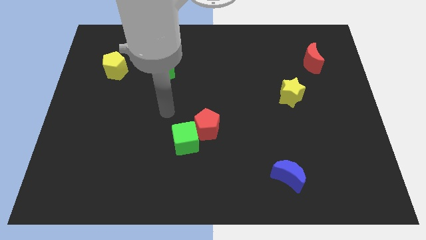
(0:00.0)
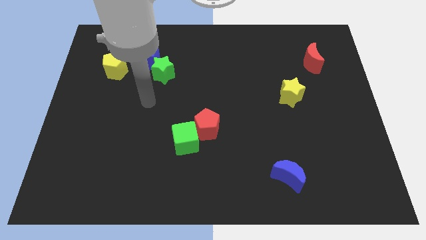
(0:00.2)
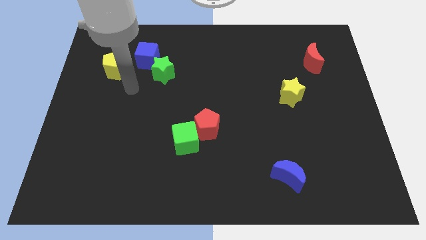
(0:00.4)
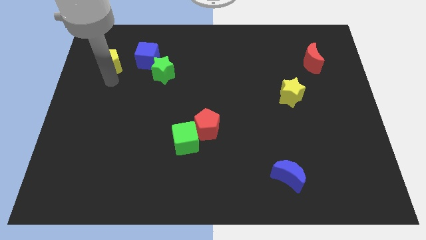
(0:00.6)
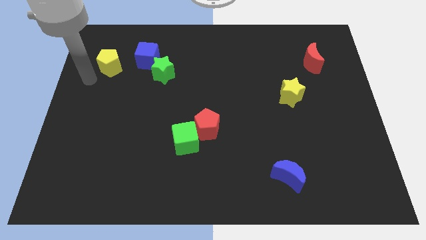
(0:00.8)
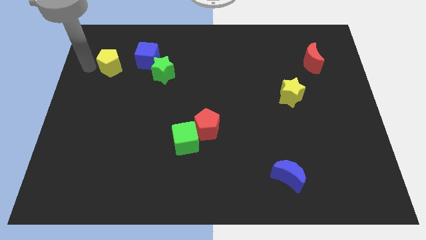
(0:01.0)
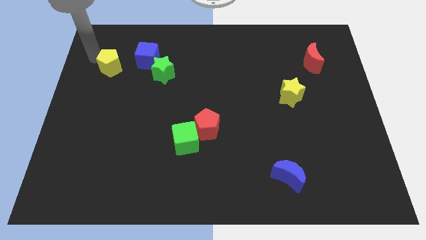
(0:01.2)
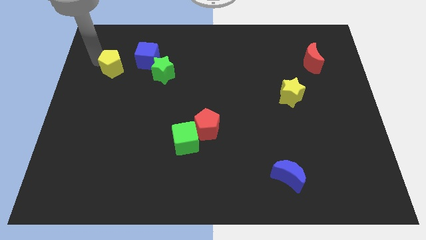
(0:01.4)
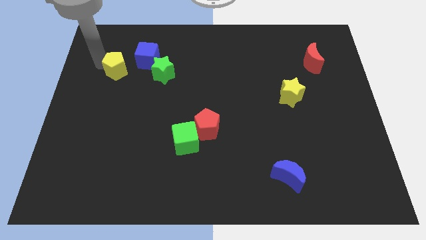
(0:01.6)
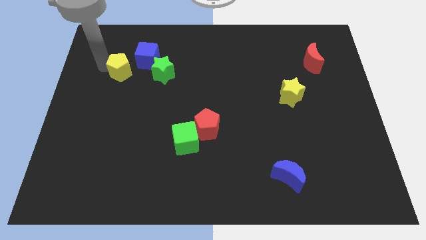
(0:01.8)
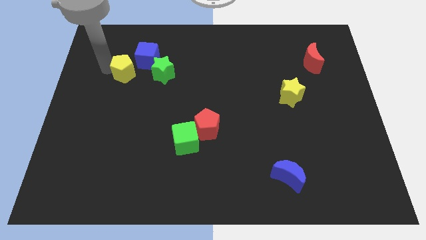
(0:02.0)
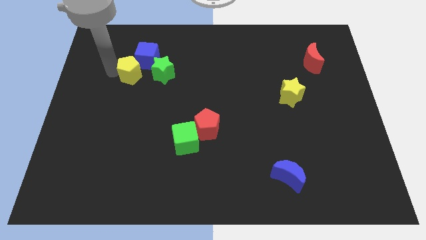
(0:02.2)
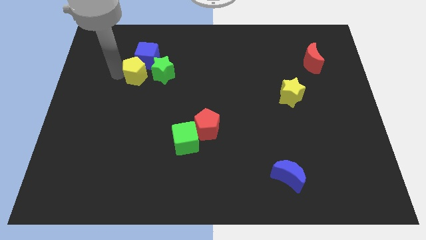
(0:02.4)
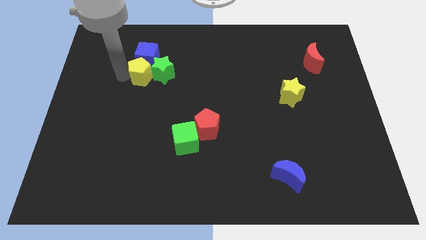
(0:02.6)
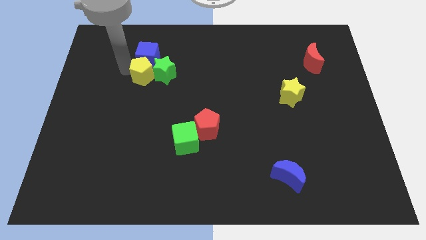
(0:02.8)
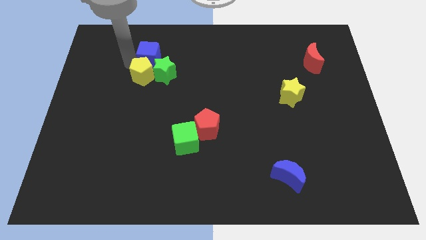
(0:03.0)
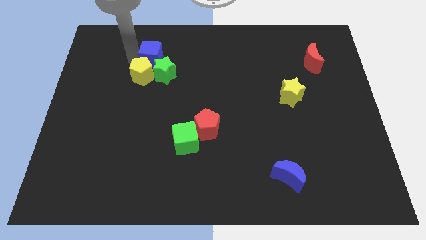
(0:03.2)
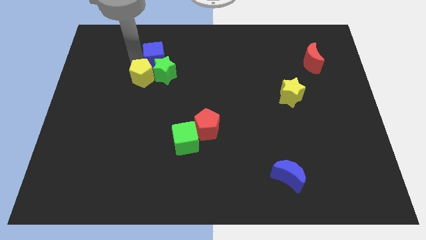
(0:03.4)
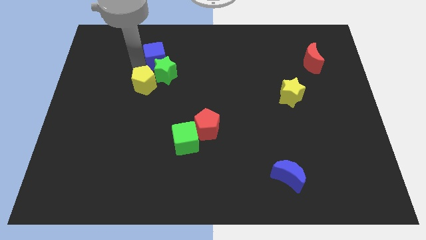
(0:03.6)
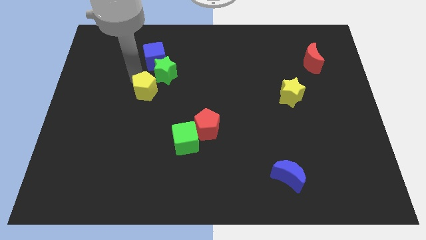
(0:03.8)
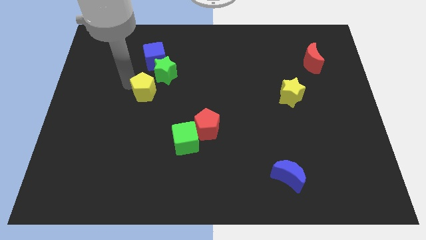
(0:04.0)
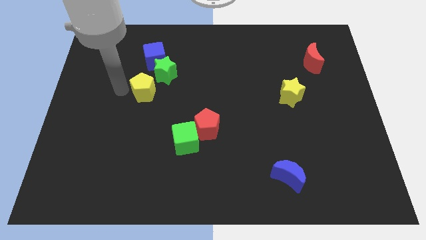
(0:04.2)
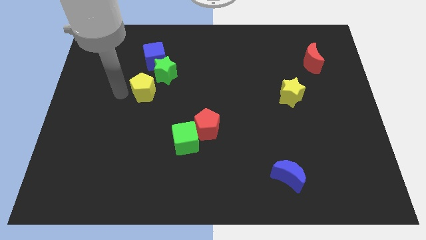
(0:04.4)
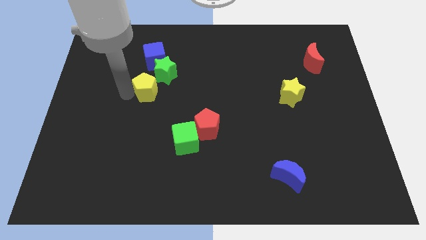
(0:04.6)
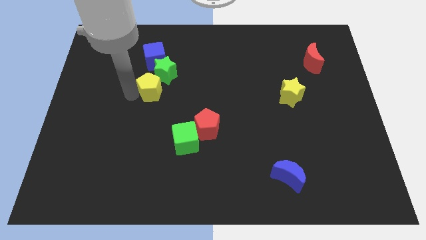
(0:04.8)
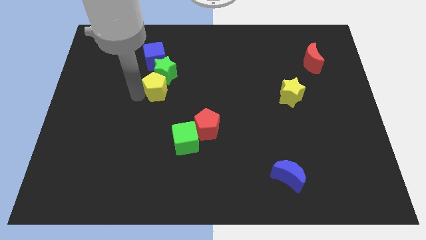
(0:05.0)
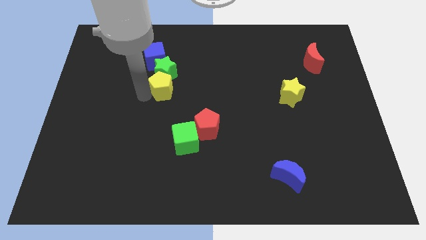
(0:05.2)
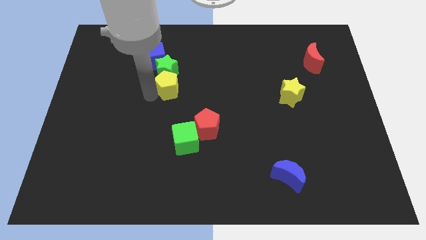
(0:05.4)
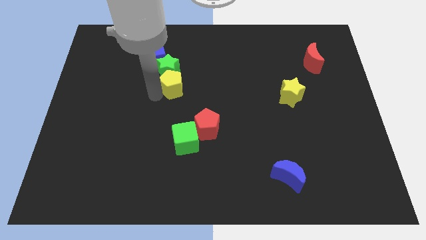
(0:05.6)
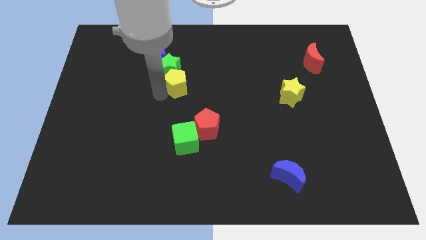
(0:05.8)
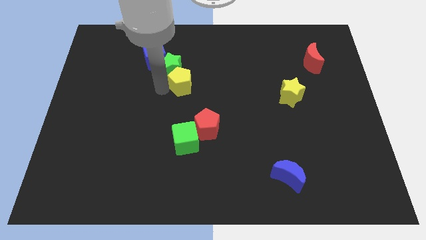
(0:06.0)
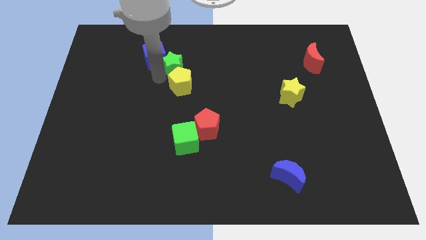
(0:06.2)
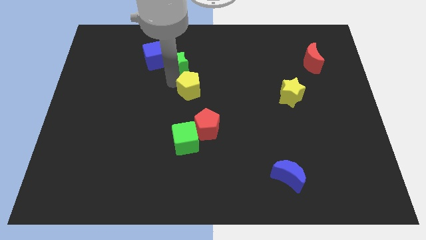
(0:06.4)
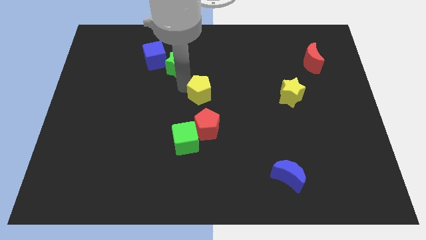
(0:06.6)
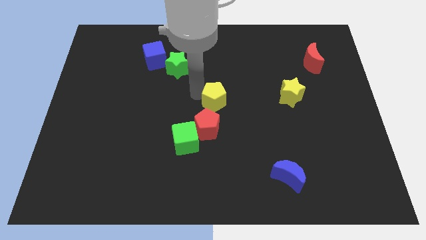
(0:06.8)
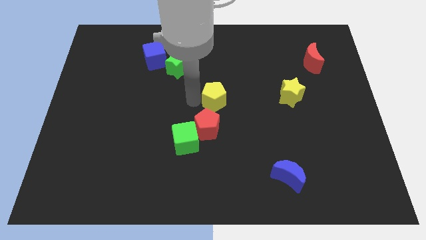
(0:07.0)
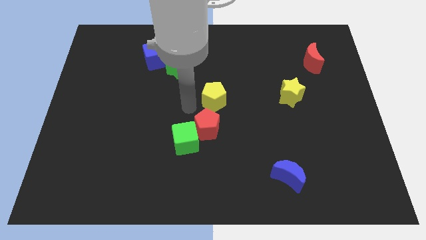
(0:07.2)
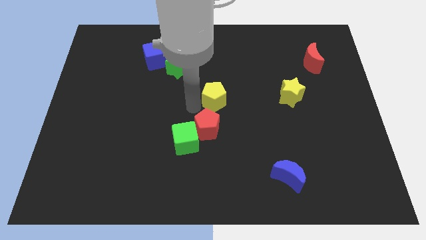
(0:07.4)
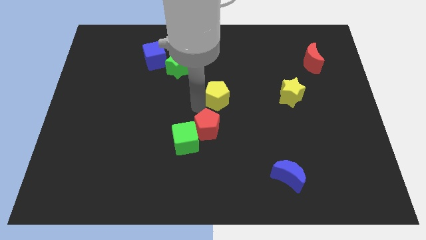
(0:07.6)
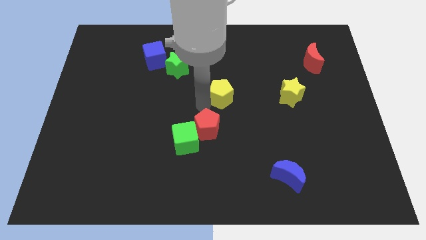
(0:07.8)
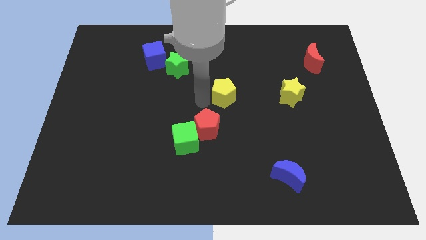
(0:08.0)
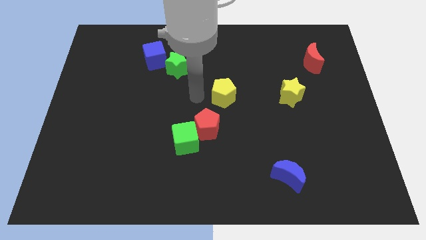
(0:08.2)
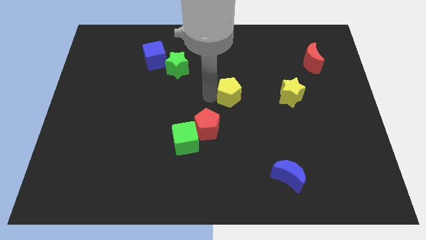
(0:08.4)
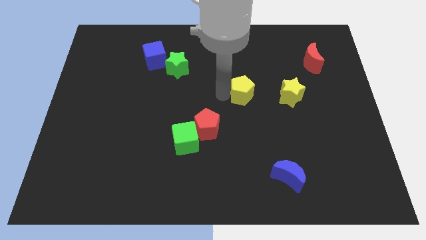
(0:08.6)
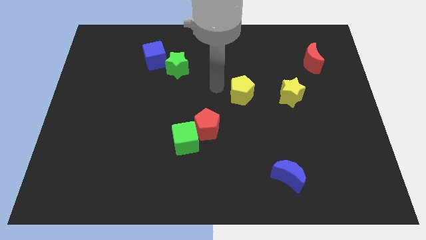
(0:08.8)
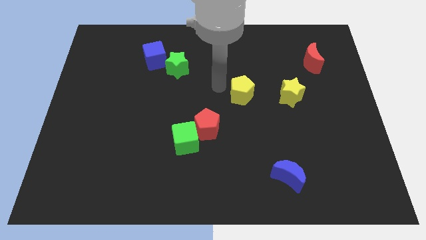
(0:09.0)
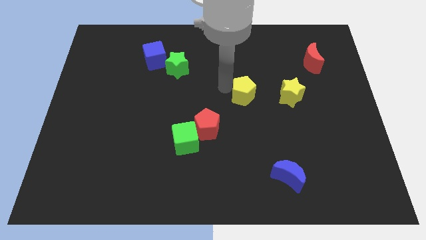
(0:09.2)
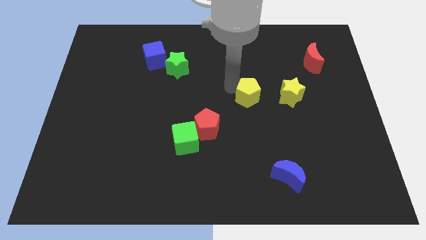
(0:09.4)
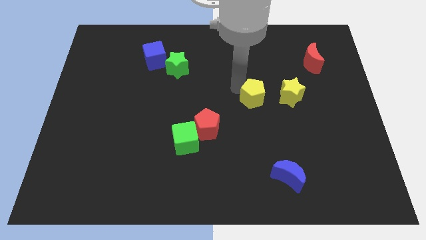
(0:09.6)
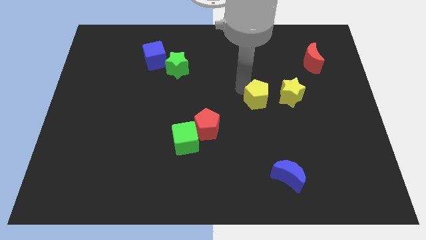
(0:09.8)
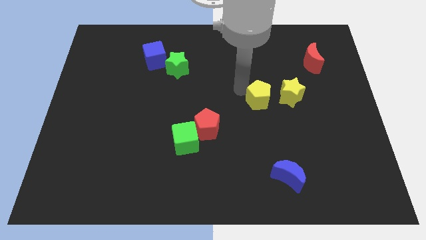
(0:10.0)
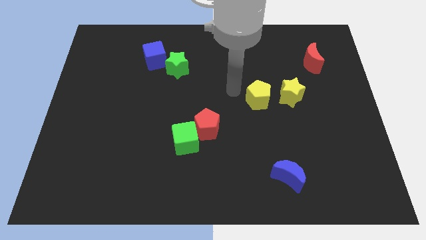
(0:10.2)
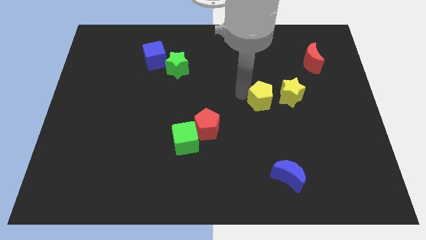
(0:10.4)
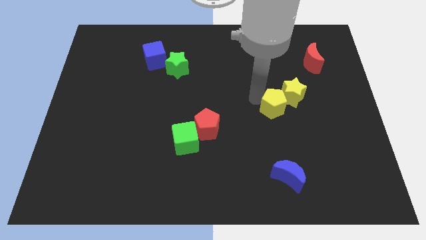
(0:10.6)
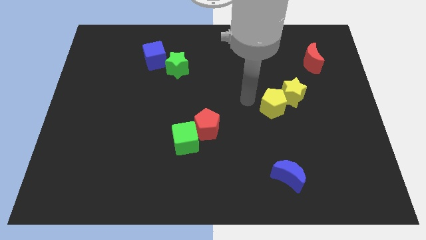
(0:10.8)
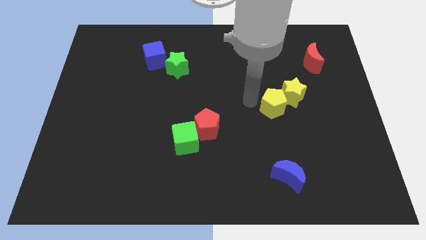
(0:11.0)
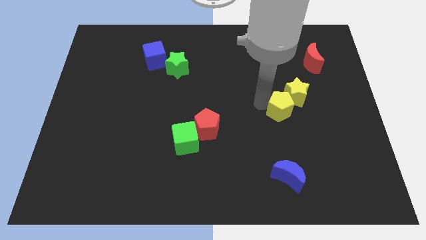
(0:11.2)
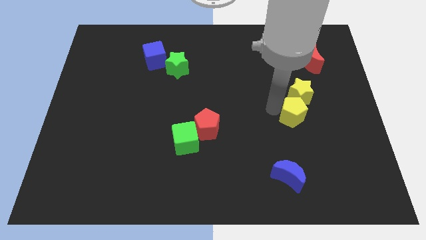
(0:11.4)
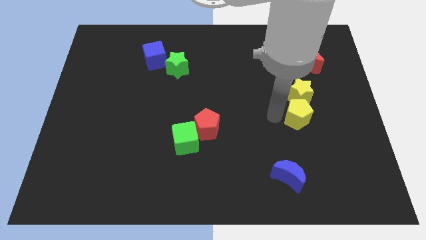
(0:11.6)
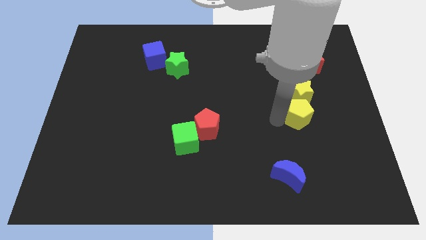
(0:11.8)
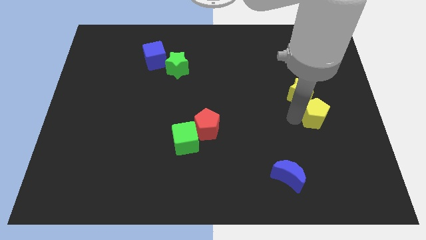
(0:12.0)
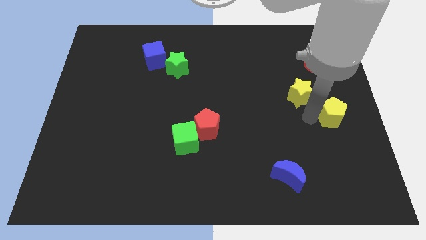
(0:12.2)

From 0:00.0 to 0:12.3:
slide the yellow pentagon to the center right
